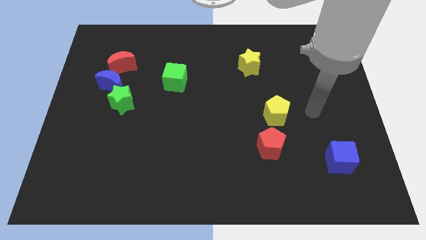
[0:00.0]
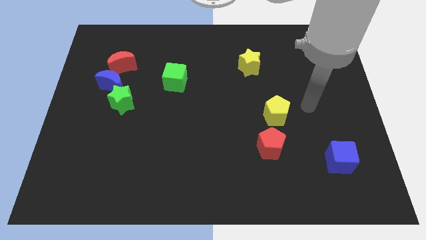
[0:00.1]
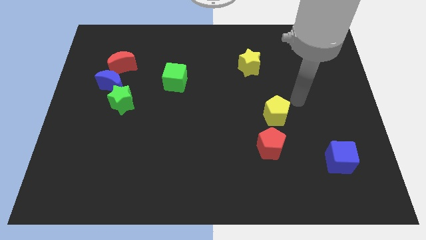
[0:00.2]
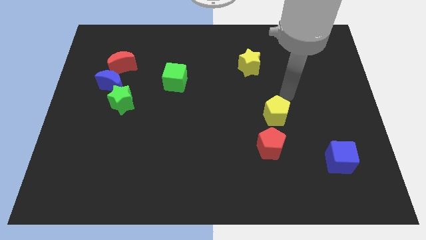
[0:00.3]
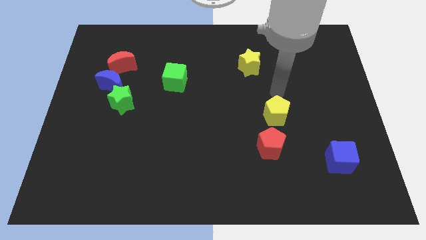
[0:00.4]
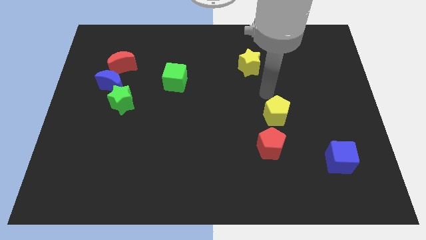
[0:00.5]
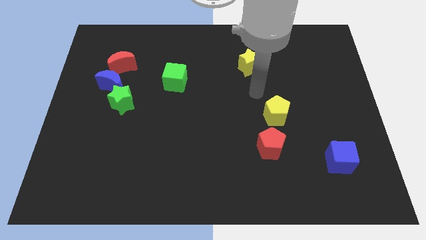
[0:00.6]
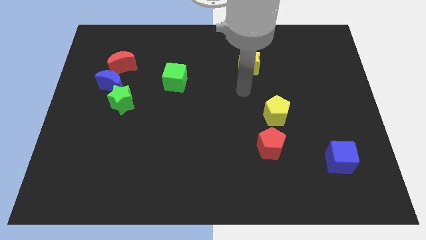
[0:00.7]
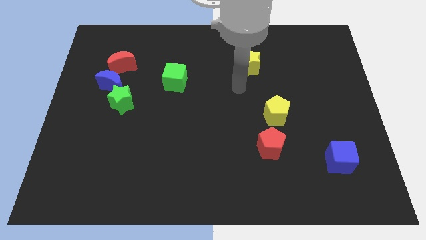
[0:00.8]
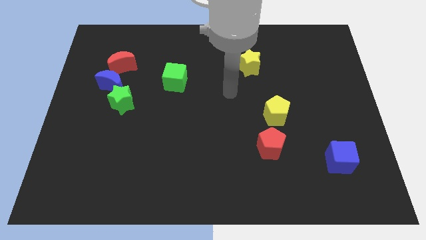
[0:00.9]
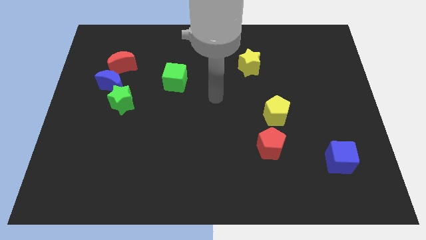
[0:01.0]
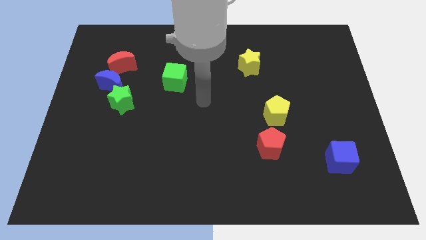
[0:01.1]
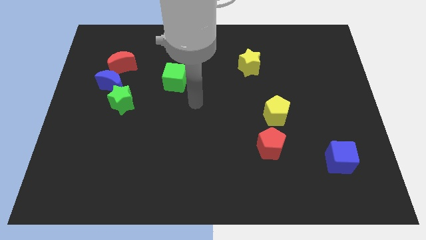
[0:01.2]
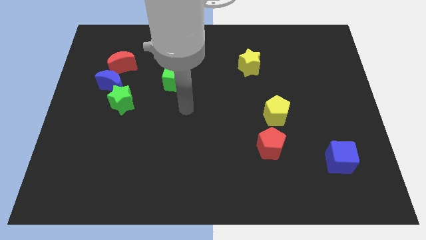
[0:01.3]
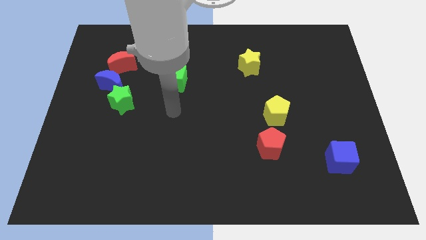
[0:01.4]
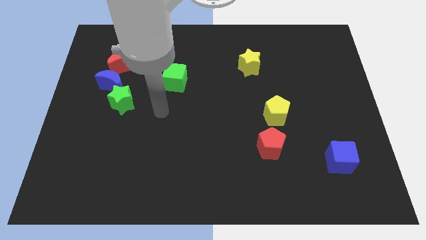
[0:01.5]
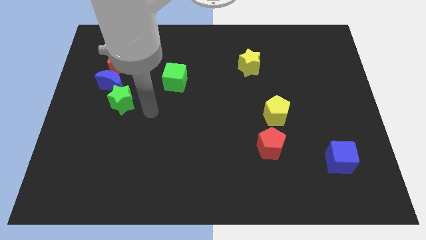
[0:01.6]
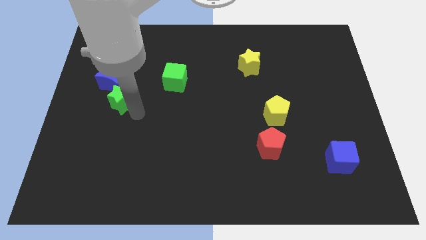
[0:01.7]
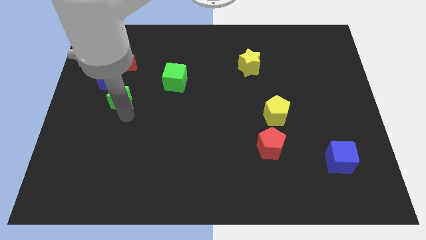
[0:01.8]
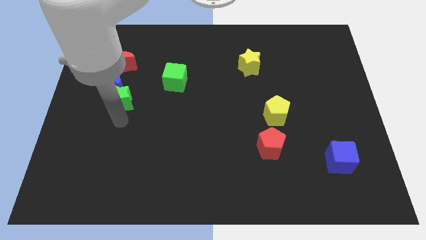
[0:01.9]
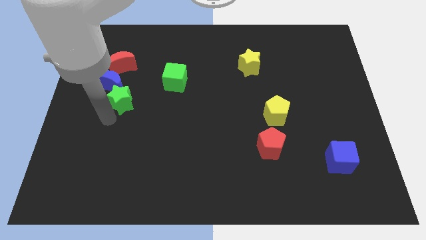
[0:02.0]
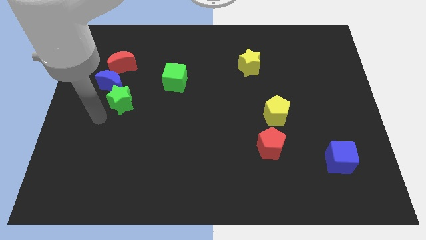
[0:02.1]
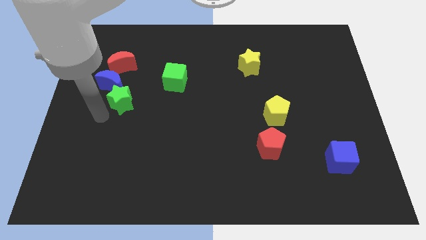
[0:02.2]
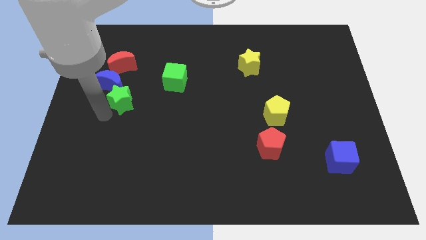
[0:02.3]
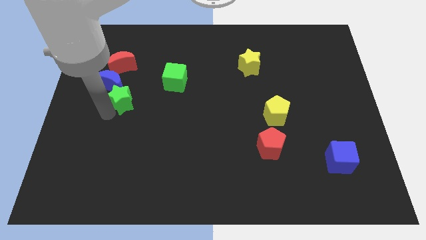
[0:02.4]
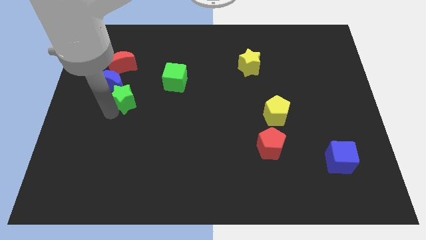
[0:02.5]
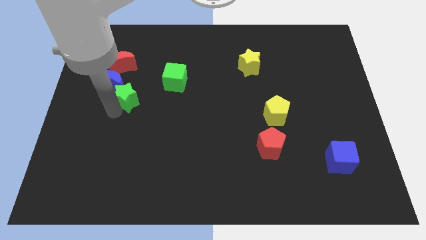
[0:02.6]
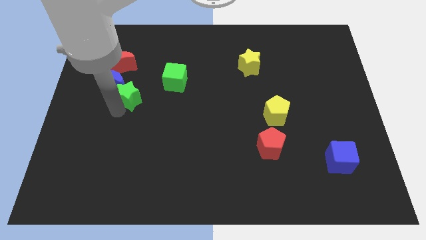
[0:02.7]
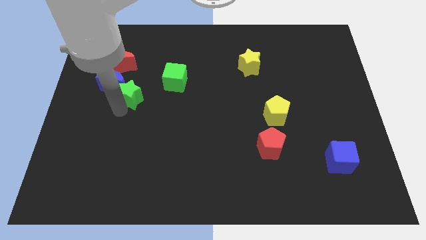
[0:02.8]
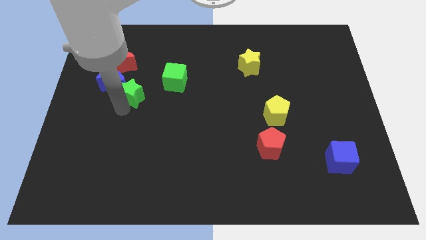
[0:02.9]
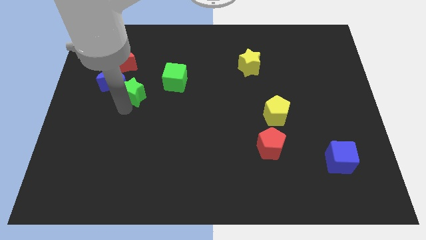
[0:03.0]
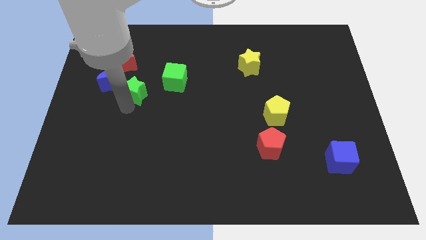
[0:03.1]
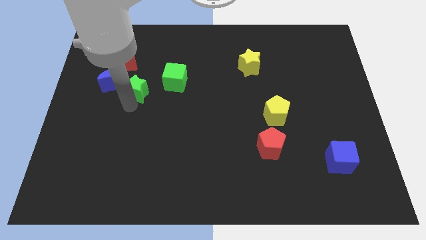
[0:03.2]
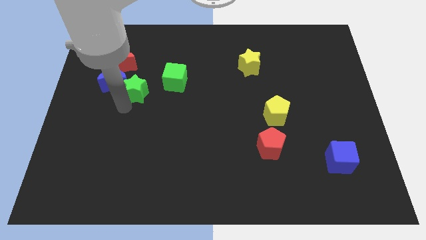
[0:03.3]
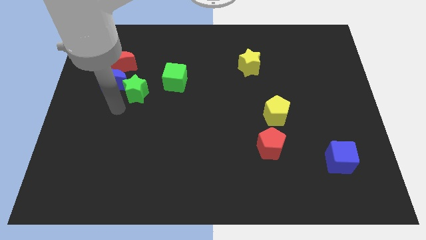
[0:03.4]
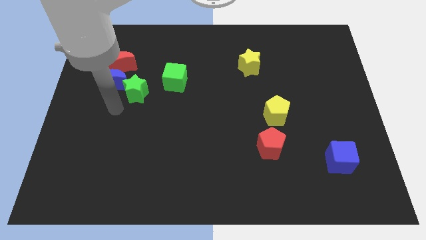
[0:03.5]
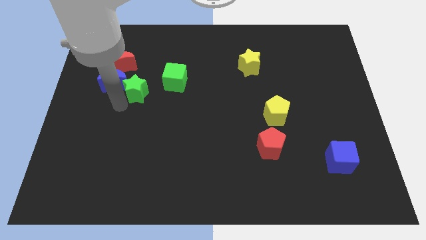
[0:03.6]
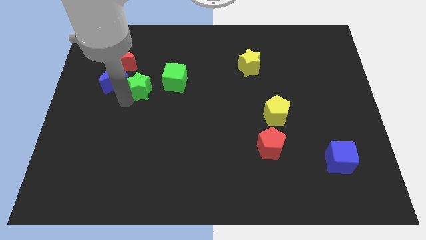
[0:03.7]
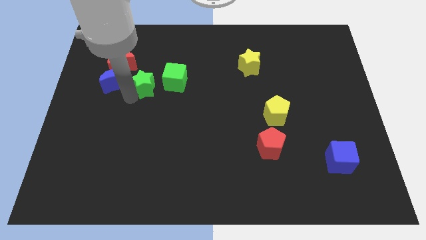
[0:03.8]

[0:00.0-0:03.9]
slightly slide the green star up and right

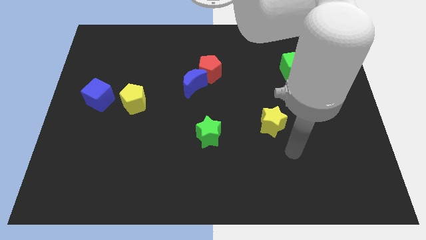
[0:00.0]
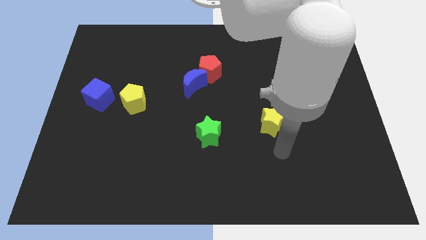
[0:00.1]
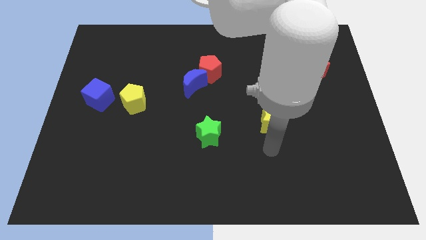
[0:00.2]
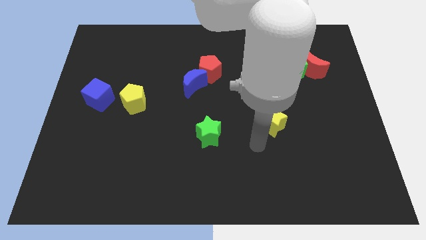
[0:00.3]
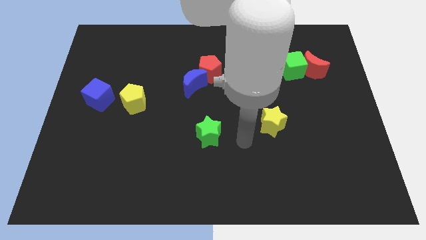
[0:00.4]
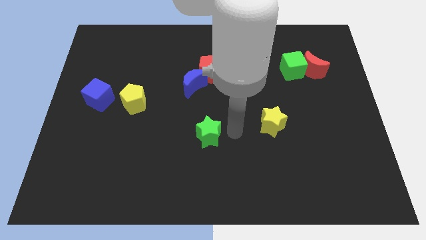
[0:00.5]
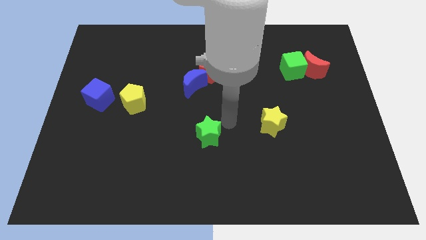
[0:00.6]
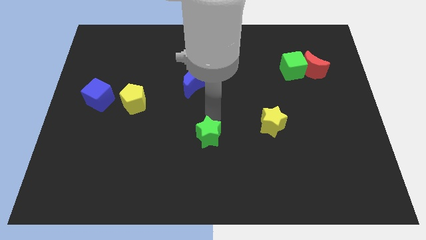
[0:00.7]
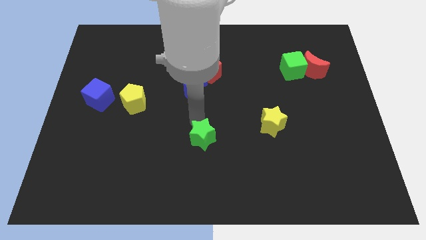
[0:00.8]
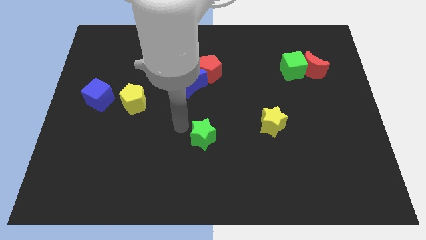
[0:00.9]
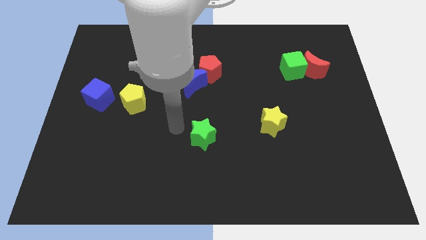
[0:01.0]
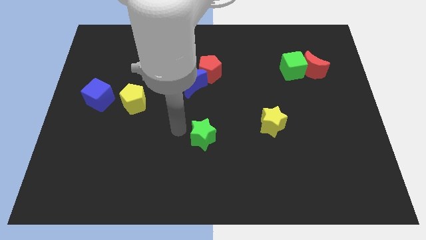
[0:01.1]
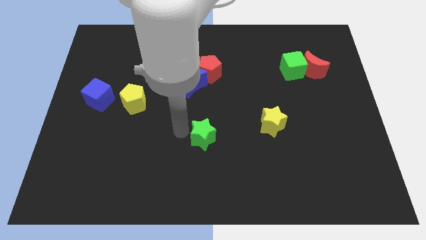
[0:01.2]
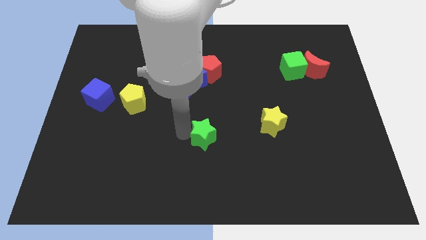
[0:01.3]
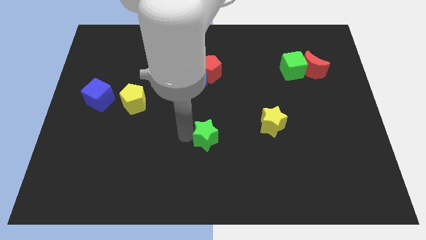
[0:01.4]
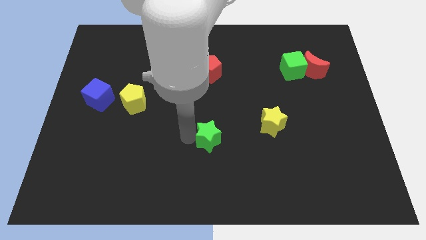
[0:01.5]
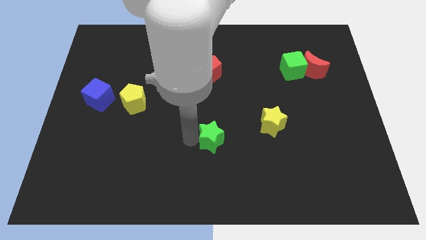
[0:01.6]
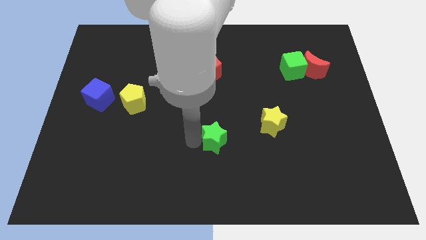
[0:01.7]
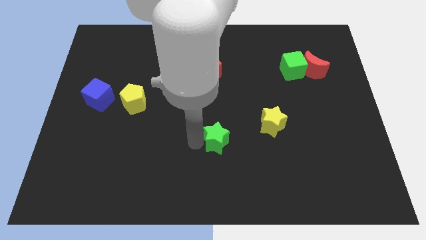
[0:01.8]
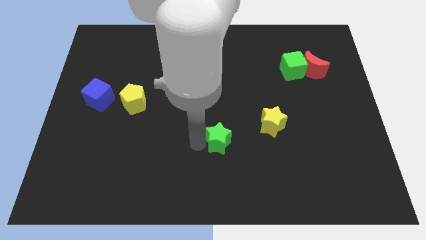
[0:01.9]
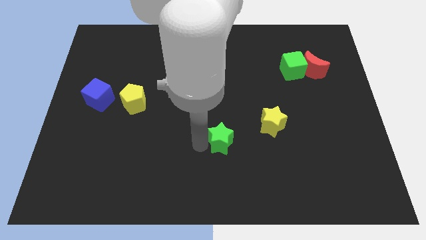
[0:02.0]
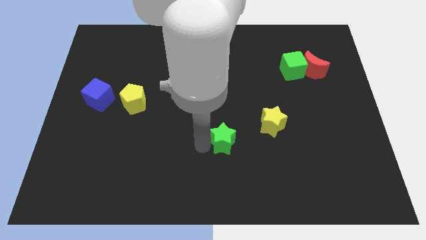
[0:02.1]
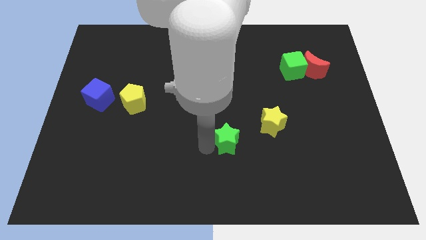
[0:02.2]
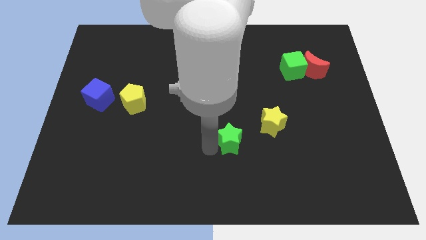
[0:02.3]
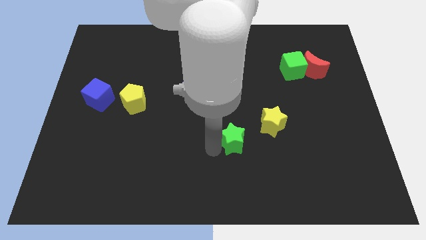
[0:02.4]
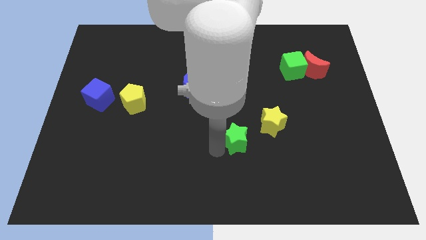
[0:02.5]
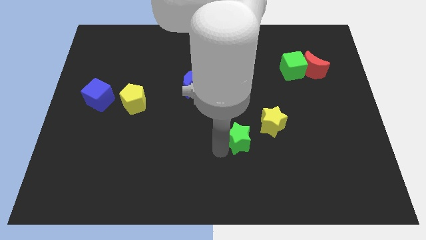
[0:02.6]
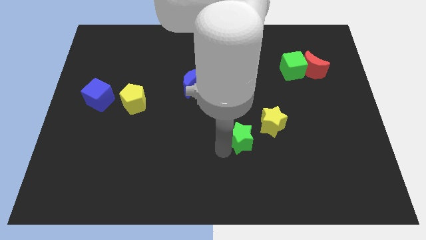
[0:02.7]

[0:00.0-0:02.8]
push the green star to the right somewhat

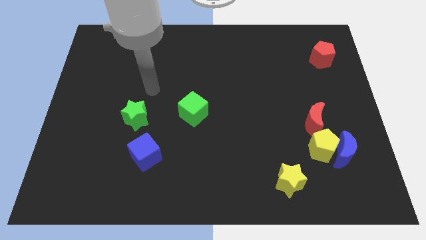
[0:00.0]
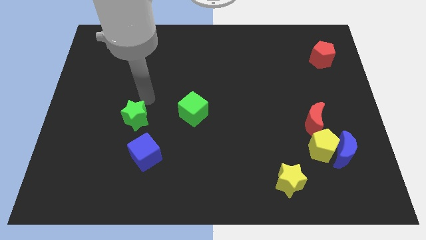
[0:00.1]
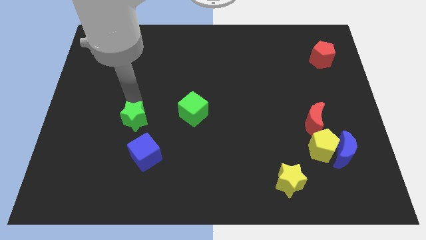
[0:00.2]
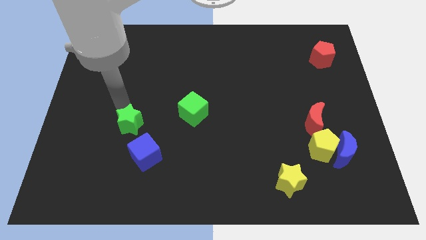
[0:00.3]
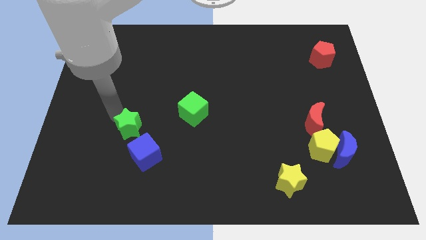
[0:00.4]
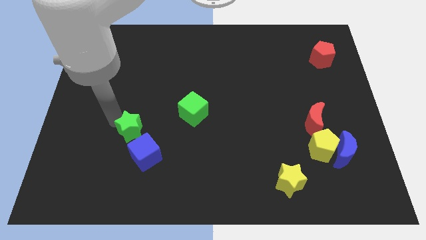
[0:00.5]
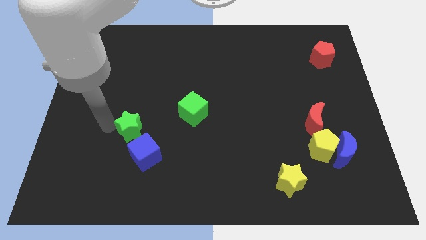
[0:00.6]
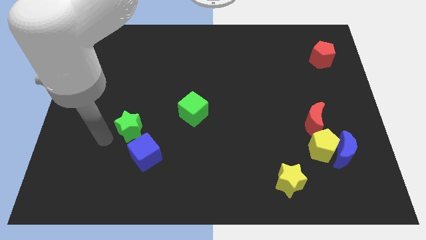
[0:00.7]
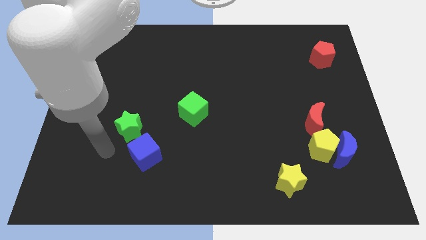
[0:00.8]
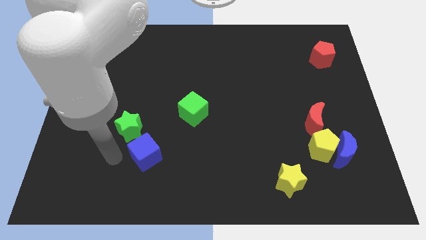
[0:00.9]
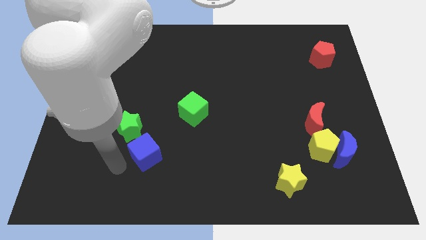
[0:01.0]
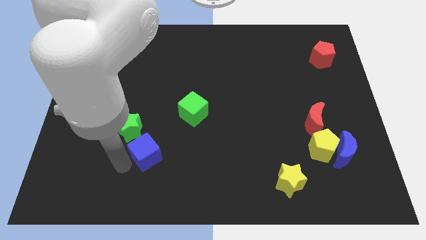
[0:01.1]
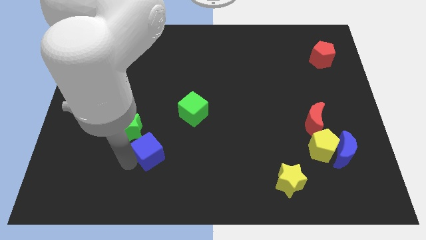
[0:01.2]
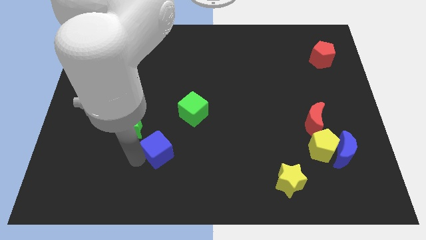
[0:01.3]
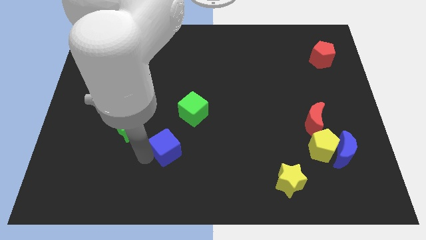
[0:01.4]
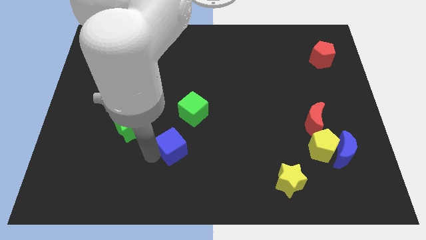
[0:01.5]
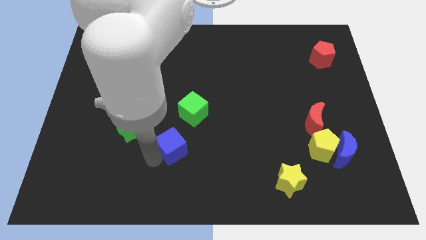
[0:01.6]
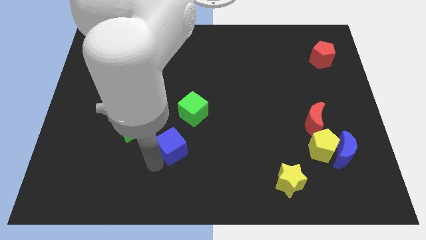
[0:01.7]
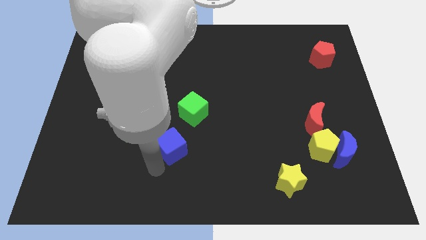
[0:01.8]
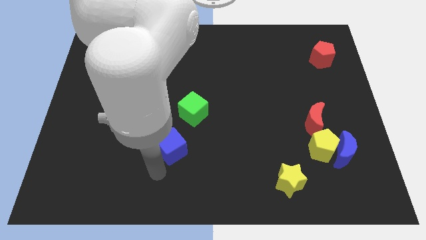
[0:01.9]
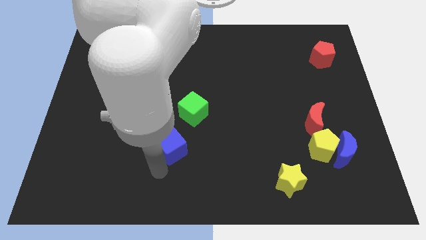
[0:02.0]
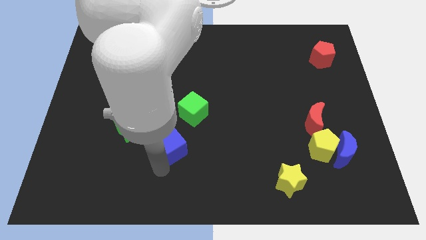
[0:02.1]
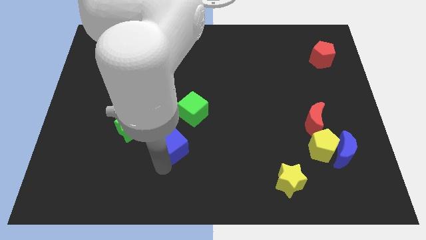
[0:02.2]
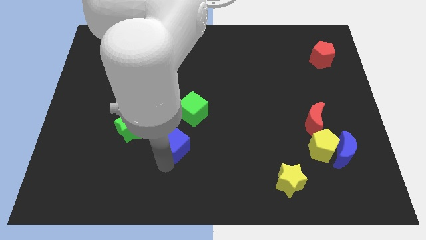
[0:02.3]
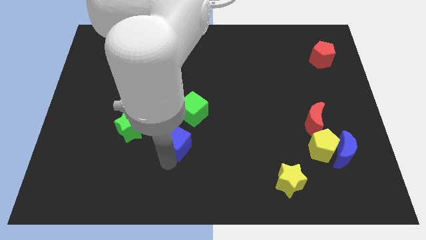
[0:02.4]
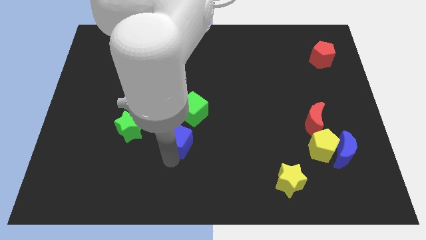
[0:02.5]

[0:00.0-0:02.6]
move the blue cube upwards and then to the right a little bit
